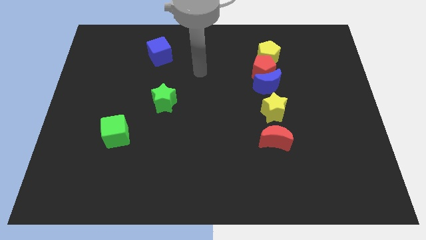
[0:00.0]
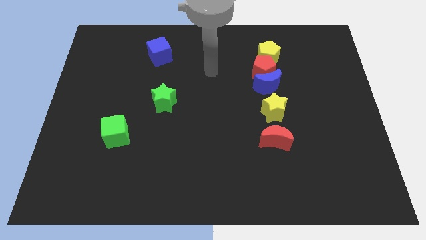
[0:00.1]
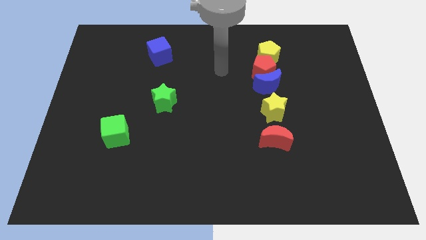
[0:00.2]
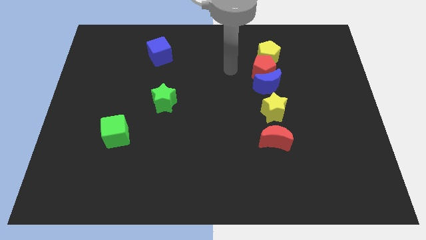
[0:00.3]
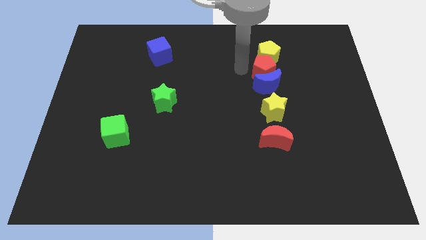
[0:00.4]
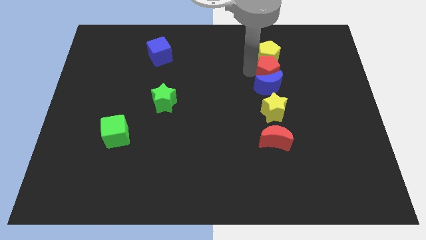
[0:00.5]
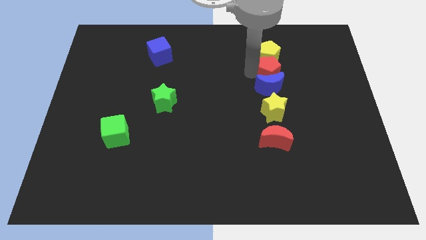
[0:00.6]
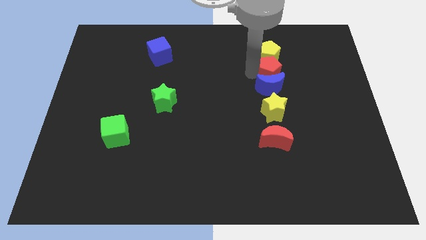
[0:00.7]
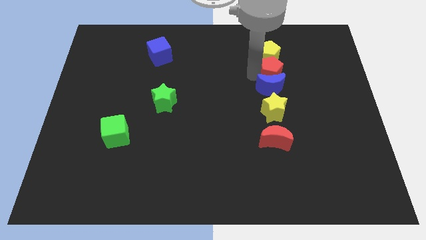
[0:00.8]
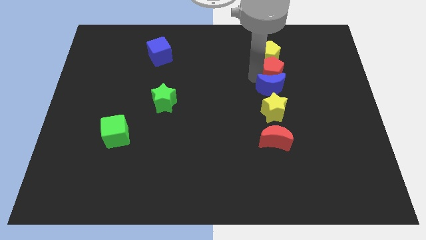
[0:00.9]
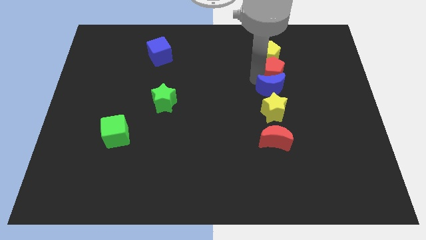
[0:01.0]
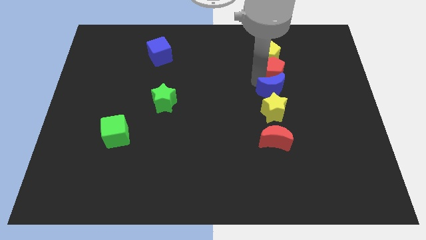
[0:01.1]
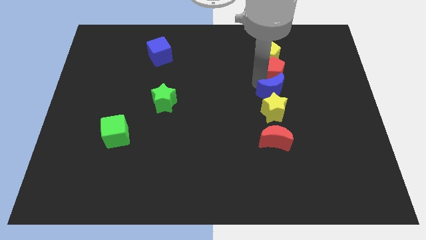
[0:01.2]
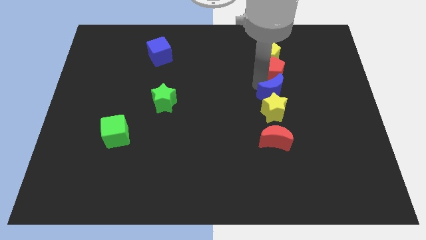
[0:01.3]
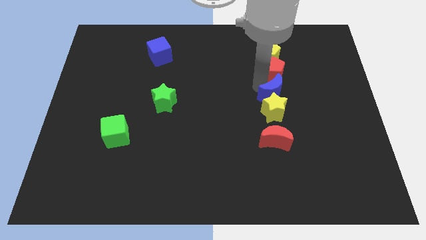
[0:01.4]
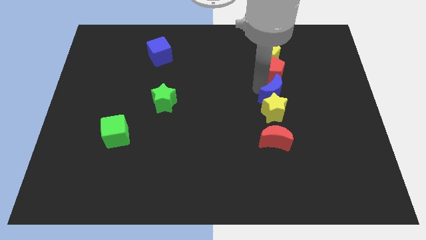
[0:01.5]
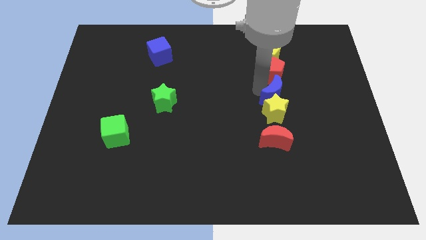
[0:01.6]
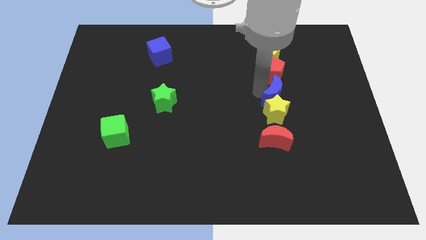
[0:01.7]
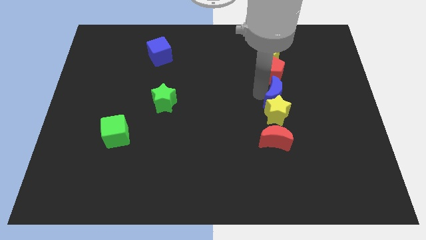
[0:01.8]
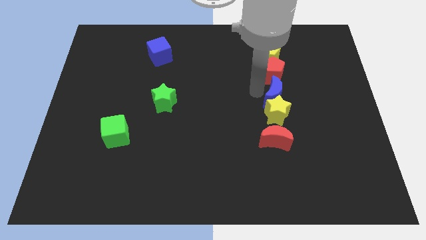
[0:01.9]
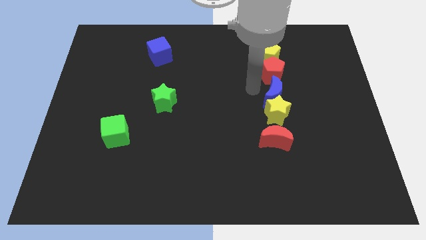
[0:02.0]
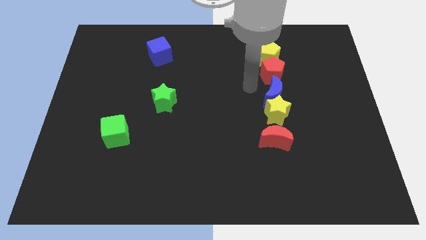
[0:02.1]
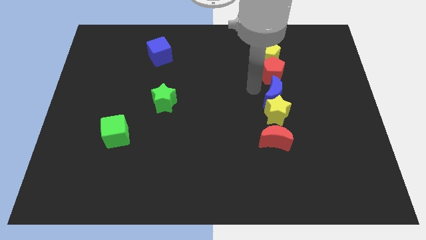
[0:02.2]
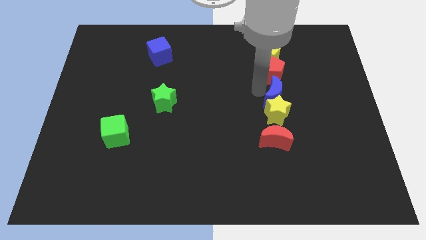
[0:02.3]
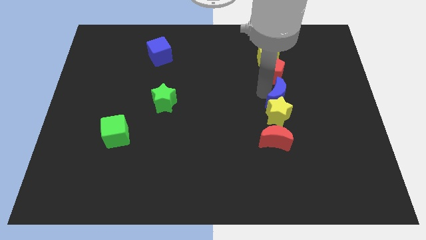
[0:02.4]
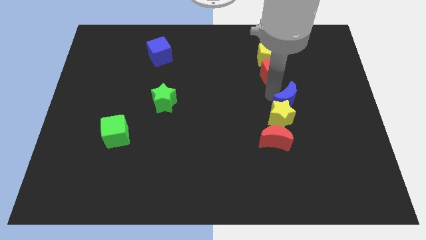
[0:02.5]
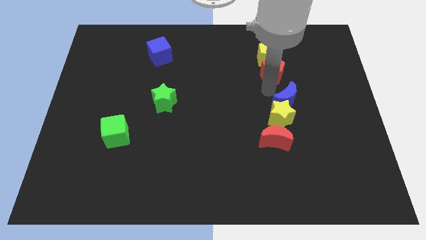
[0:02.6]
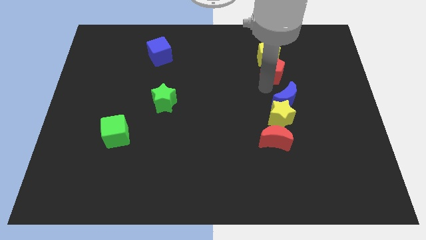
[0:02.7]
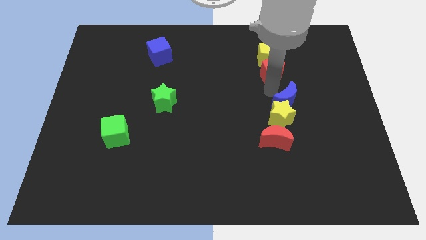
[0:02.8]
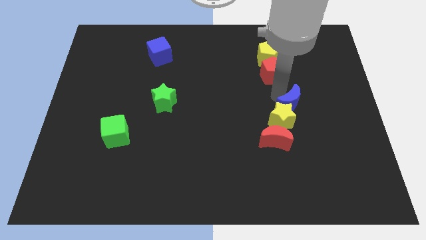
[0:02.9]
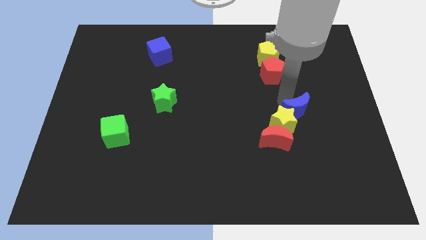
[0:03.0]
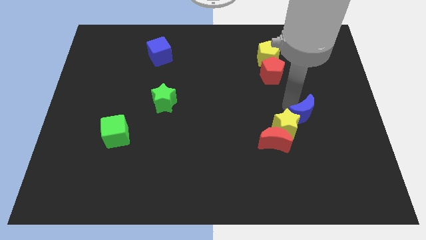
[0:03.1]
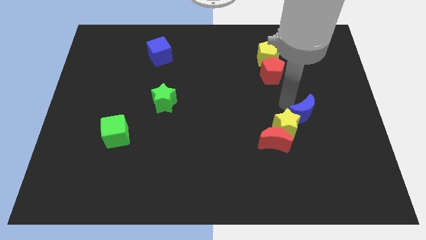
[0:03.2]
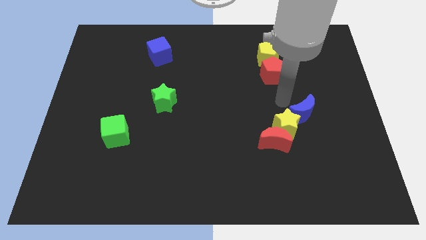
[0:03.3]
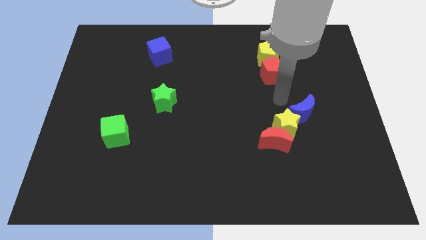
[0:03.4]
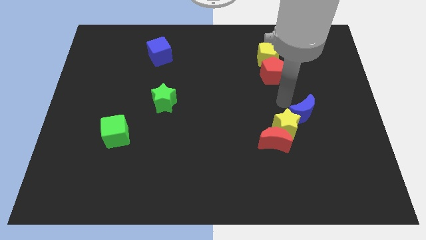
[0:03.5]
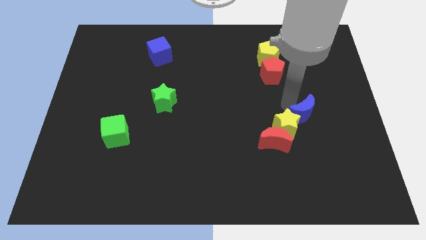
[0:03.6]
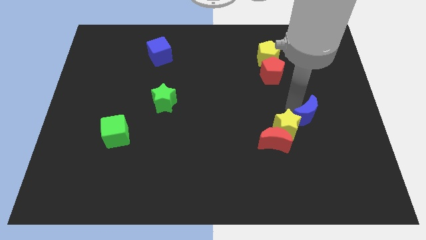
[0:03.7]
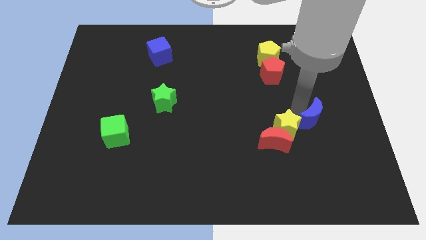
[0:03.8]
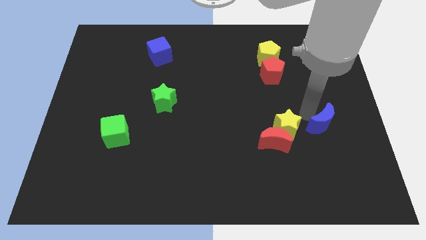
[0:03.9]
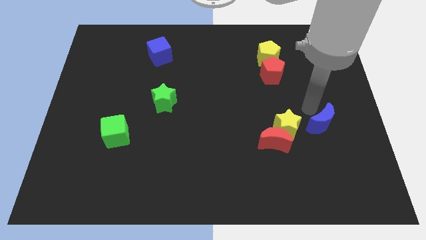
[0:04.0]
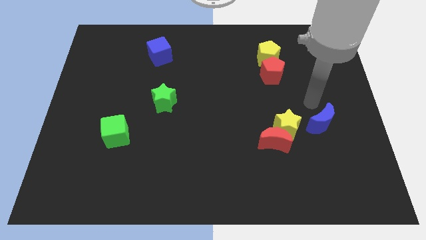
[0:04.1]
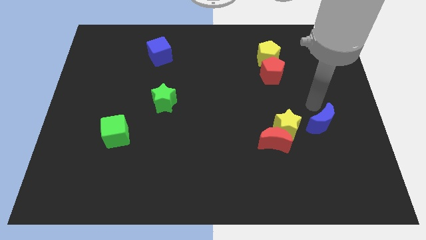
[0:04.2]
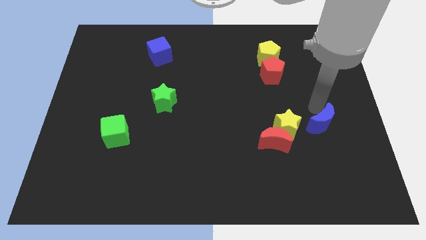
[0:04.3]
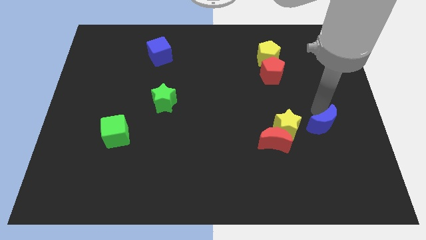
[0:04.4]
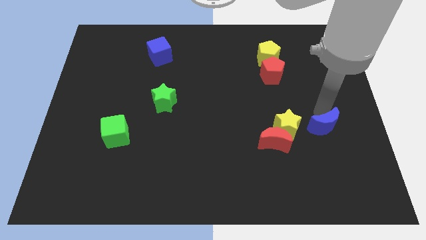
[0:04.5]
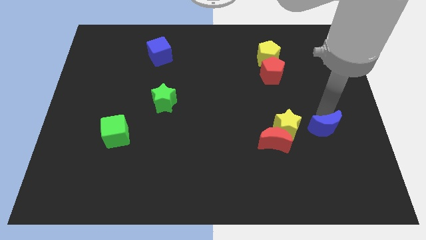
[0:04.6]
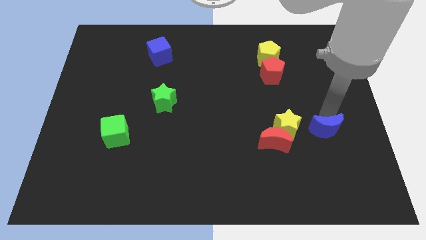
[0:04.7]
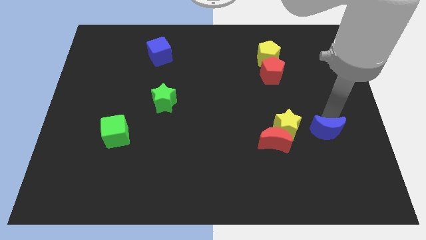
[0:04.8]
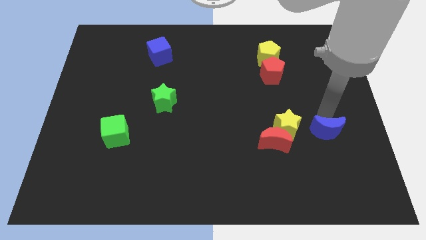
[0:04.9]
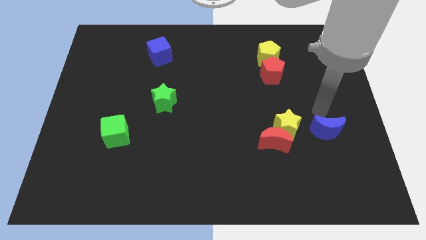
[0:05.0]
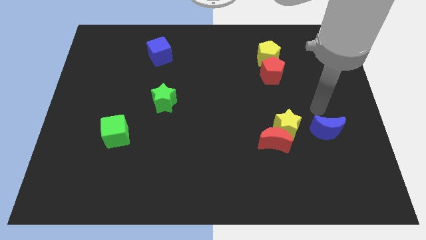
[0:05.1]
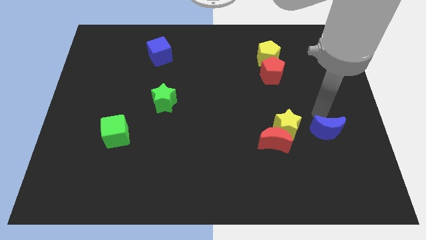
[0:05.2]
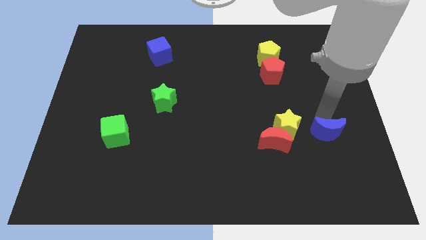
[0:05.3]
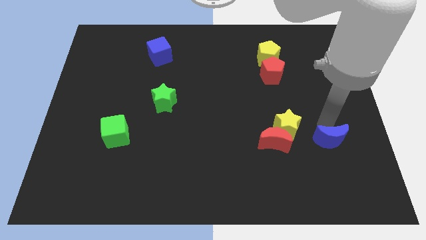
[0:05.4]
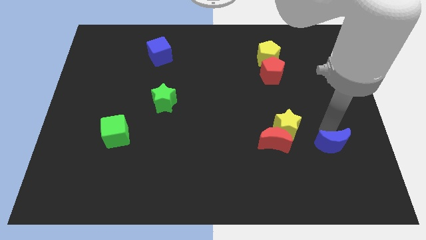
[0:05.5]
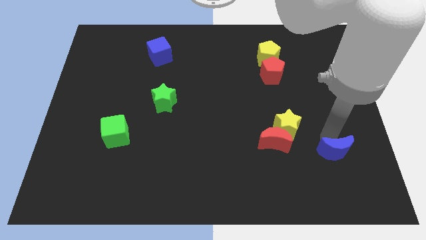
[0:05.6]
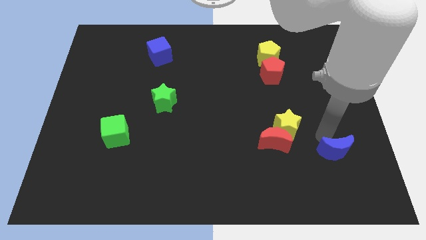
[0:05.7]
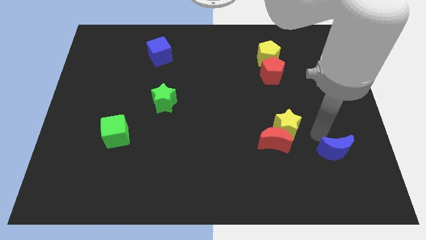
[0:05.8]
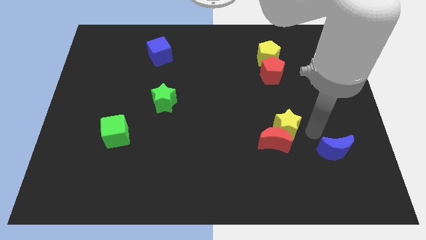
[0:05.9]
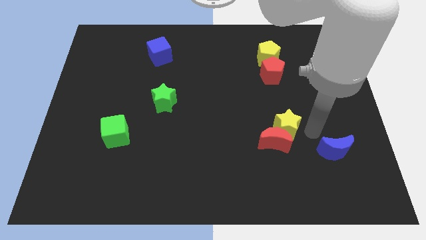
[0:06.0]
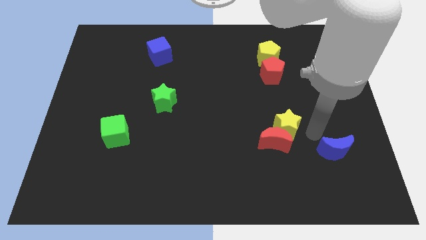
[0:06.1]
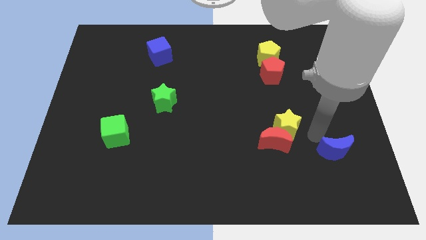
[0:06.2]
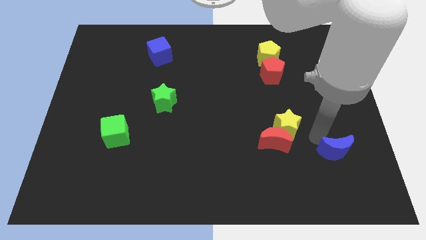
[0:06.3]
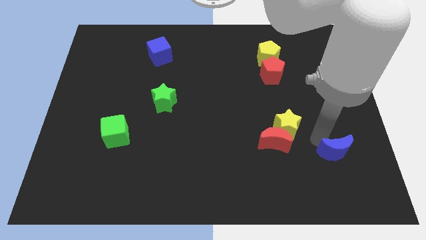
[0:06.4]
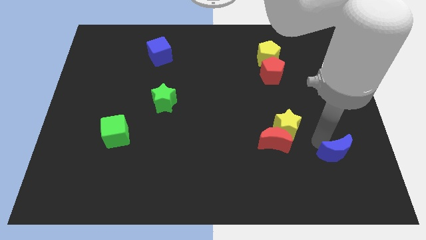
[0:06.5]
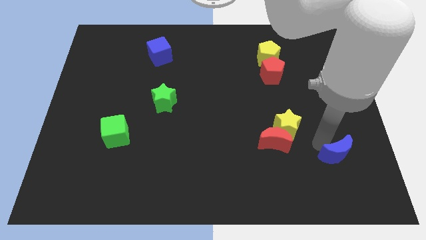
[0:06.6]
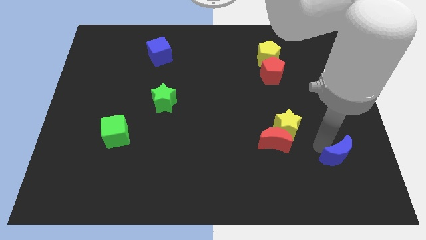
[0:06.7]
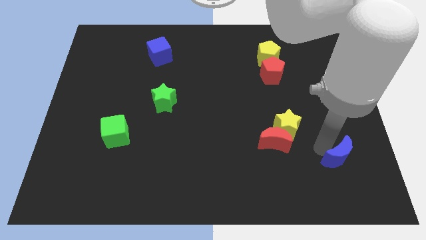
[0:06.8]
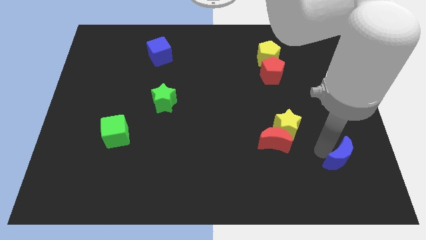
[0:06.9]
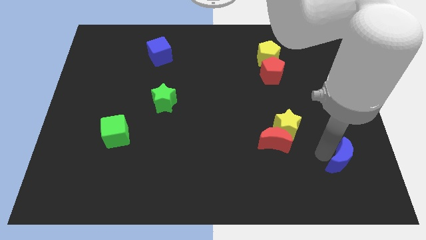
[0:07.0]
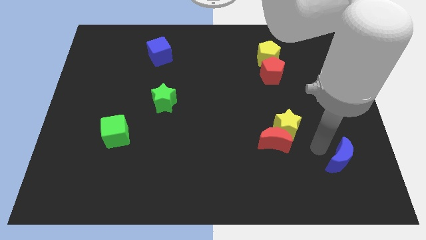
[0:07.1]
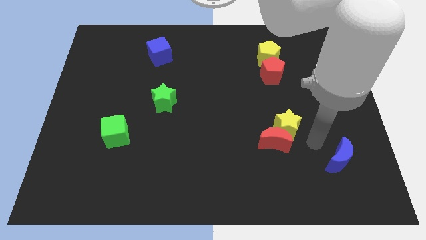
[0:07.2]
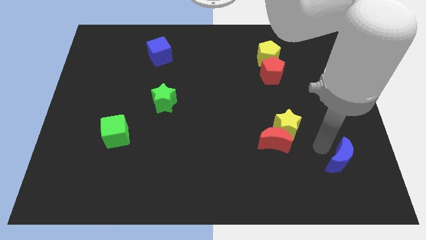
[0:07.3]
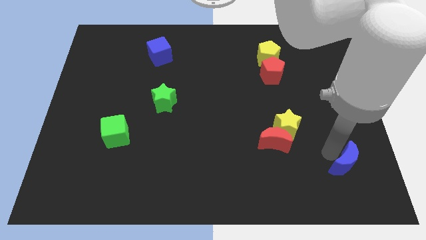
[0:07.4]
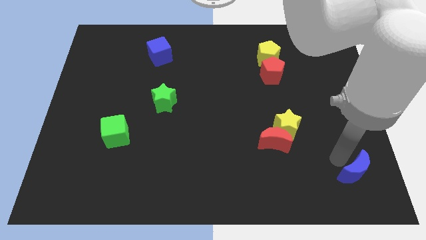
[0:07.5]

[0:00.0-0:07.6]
put the blue moon to the bottom right of the board
